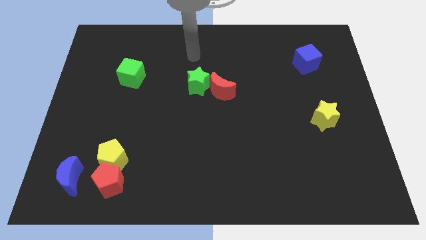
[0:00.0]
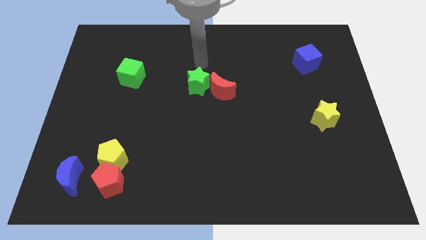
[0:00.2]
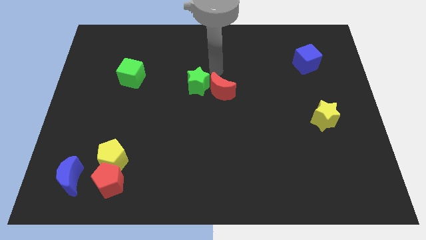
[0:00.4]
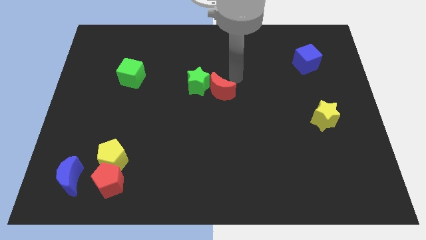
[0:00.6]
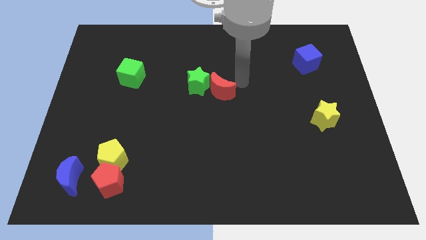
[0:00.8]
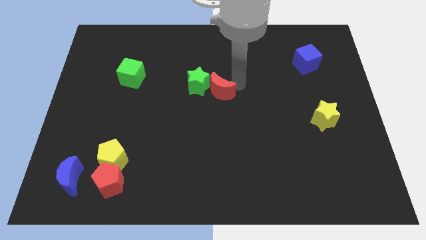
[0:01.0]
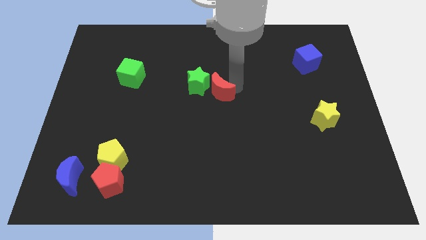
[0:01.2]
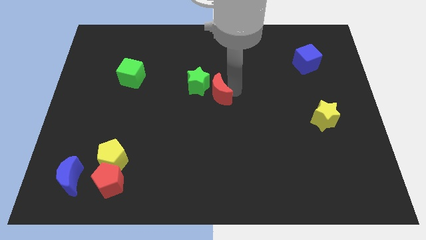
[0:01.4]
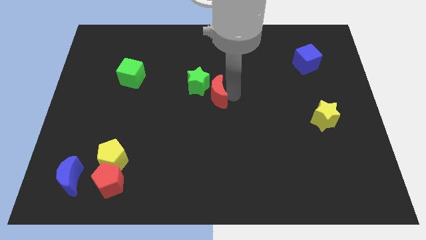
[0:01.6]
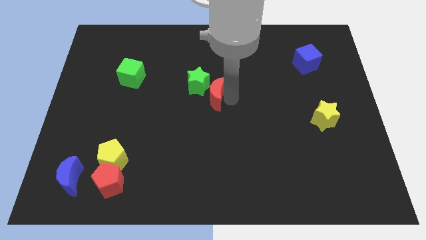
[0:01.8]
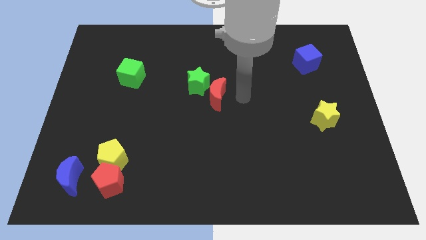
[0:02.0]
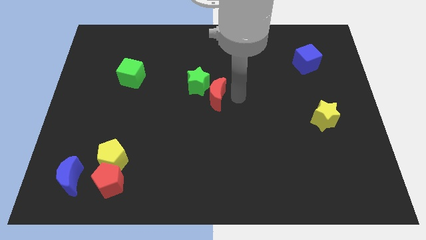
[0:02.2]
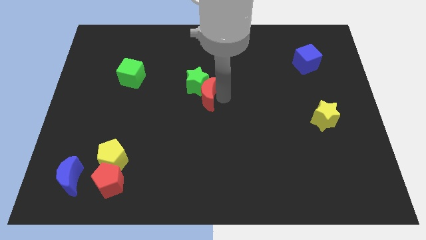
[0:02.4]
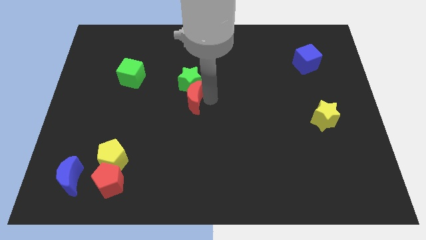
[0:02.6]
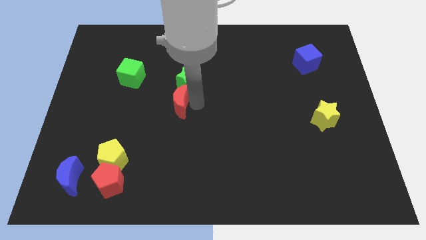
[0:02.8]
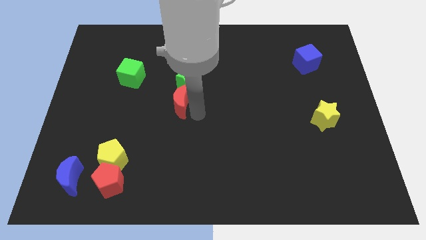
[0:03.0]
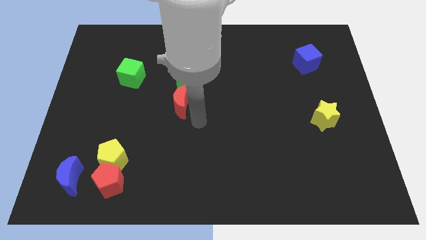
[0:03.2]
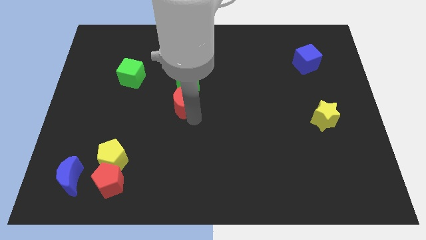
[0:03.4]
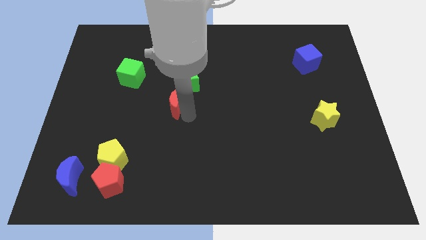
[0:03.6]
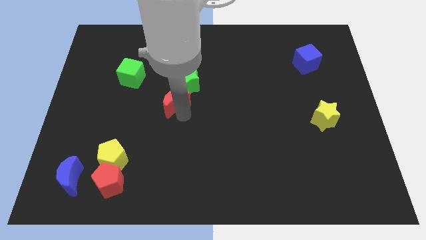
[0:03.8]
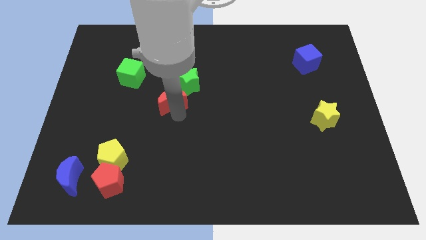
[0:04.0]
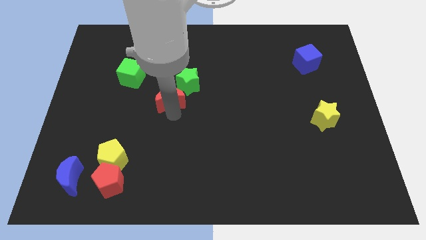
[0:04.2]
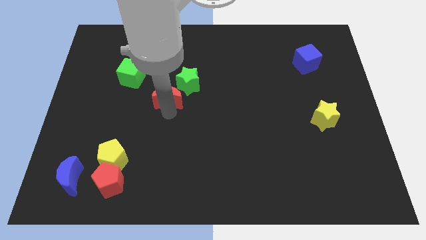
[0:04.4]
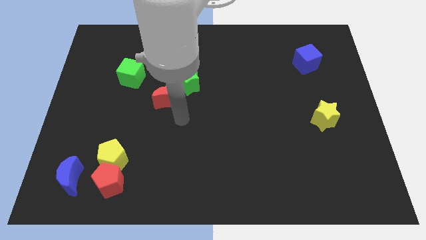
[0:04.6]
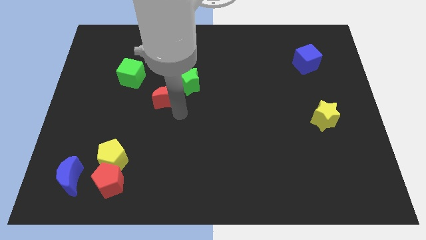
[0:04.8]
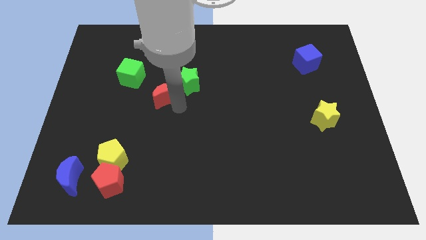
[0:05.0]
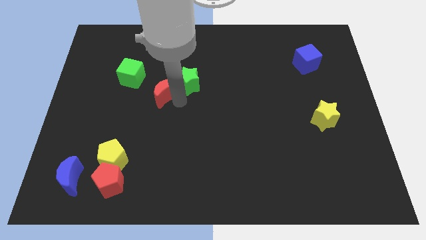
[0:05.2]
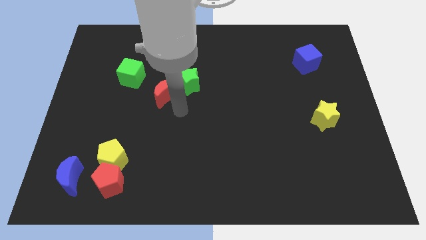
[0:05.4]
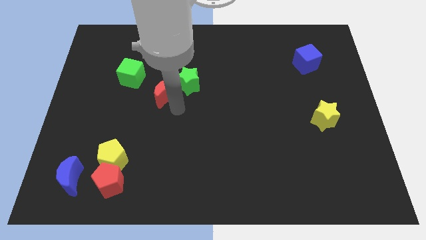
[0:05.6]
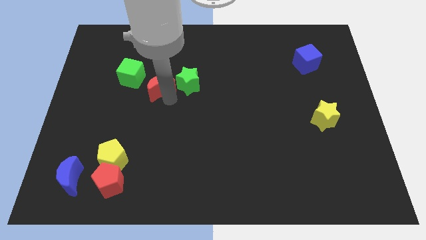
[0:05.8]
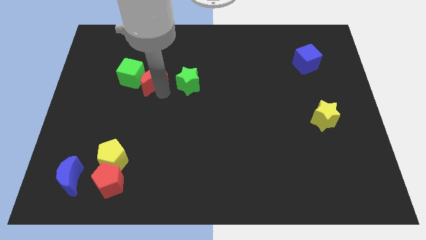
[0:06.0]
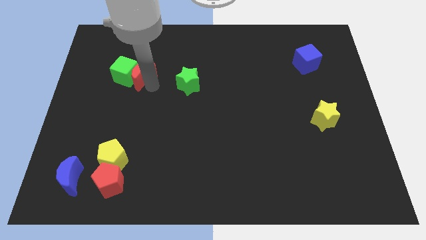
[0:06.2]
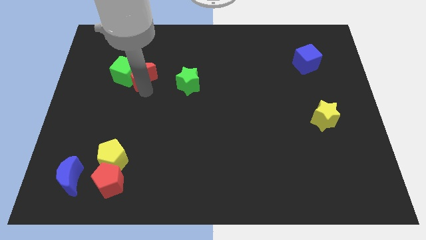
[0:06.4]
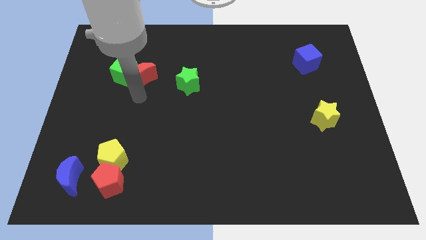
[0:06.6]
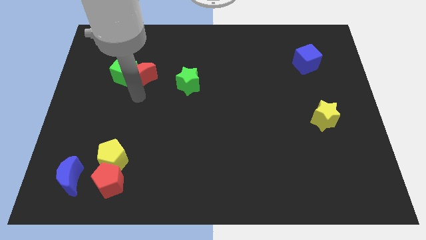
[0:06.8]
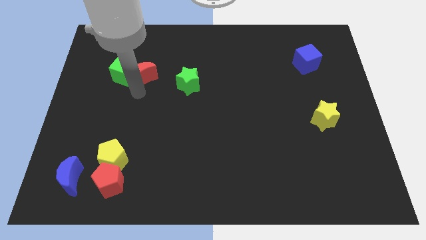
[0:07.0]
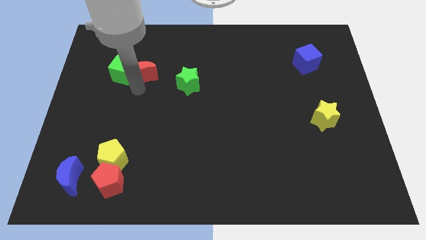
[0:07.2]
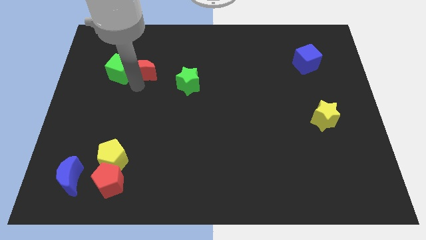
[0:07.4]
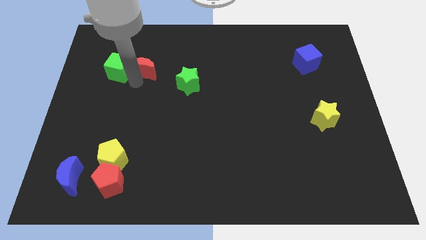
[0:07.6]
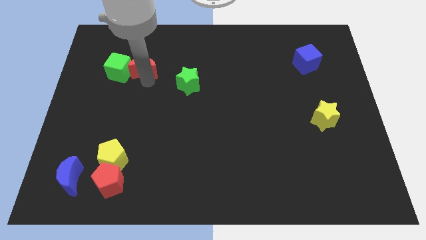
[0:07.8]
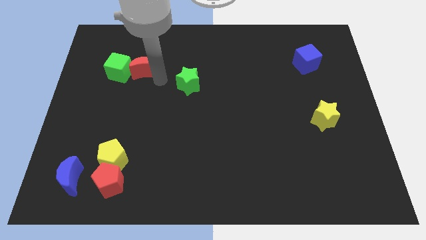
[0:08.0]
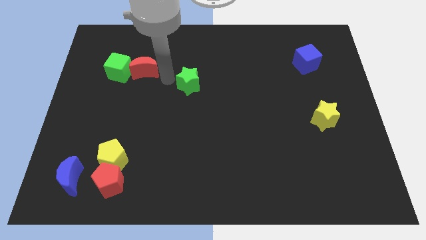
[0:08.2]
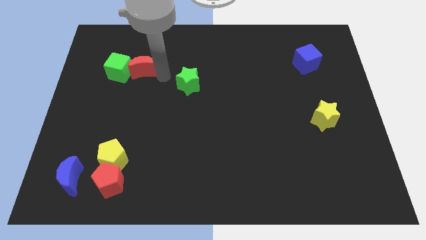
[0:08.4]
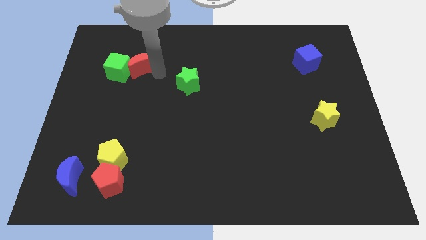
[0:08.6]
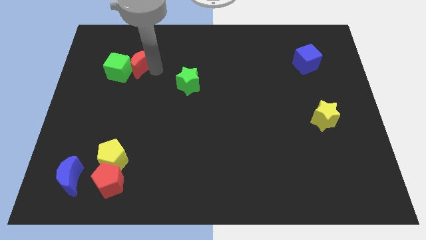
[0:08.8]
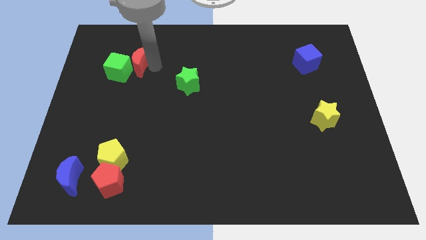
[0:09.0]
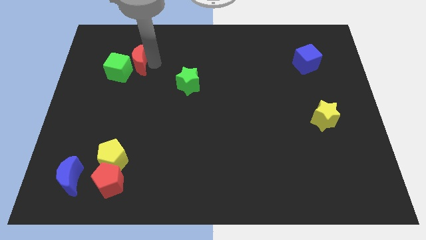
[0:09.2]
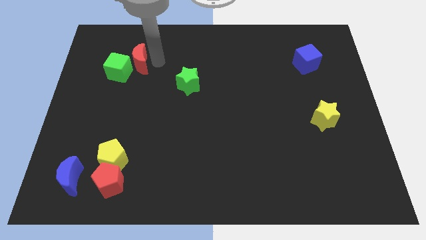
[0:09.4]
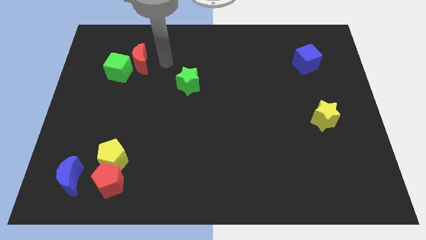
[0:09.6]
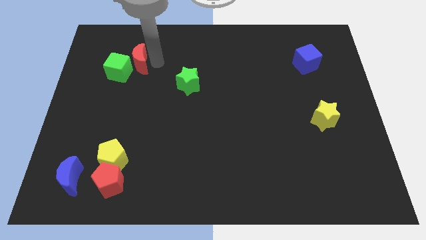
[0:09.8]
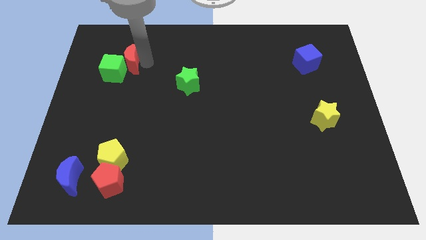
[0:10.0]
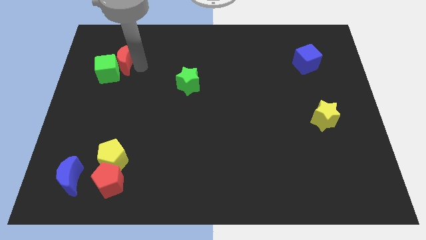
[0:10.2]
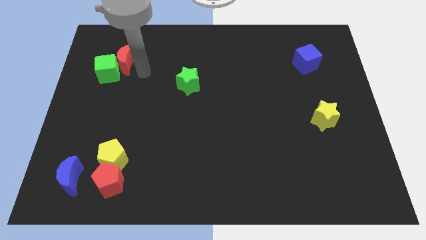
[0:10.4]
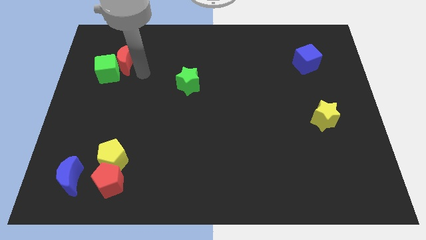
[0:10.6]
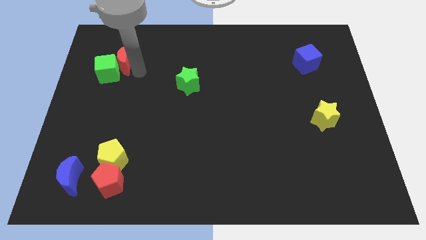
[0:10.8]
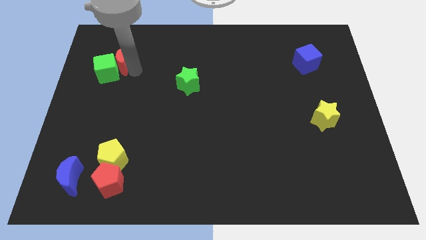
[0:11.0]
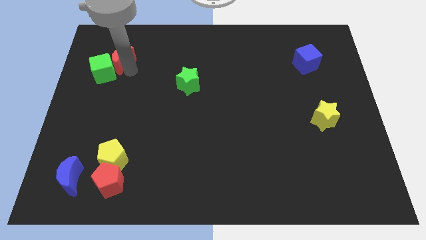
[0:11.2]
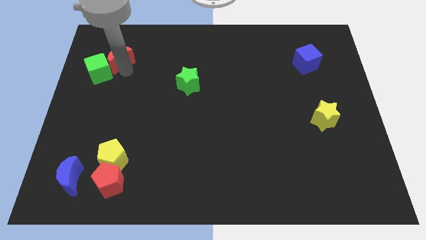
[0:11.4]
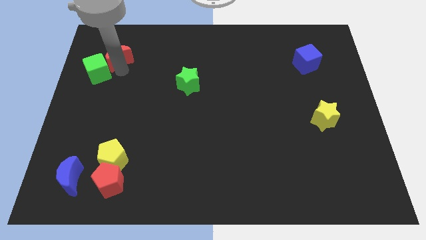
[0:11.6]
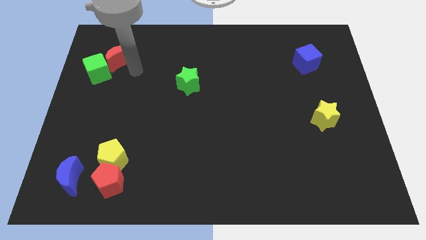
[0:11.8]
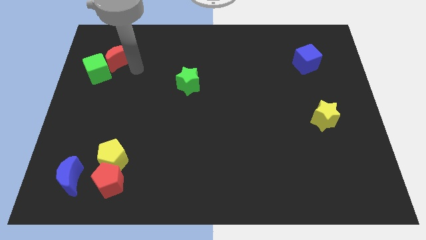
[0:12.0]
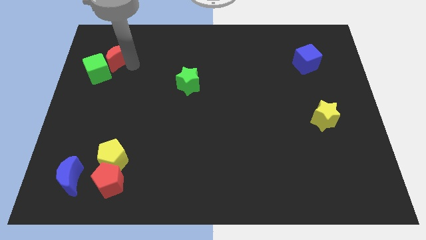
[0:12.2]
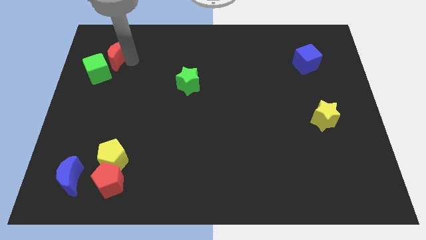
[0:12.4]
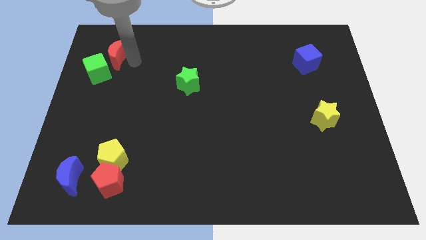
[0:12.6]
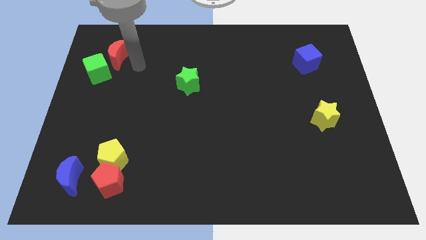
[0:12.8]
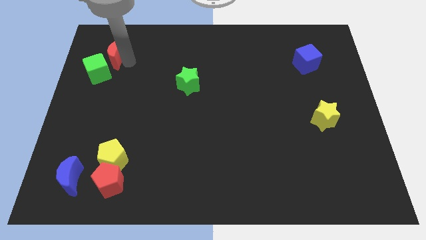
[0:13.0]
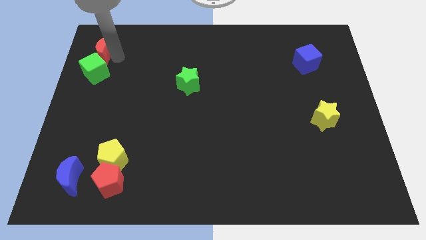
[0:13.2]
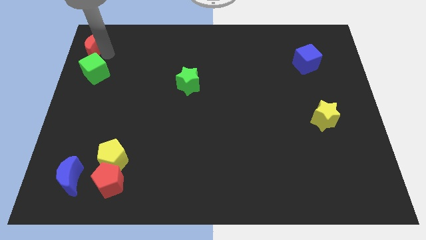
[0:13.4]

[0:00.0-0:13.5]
slide the red moon to the upper left corner

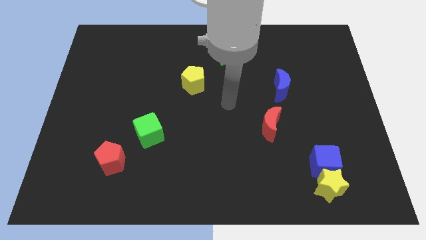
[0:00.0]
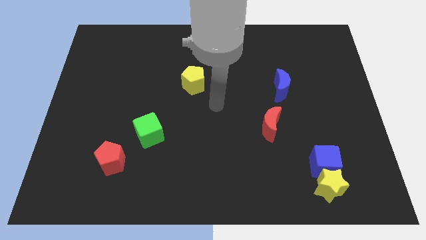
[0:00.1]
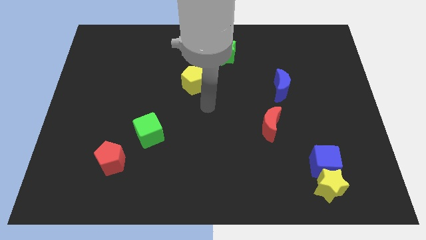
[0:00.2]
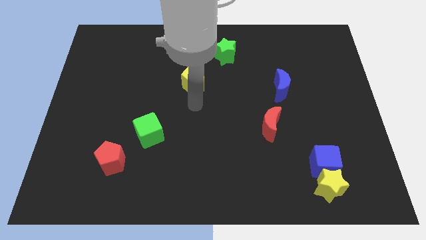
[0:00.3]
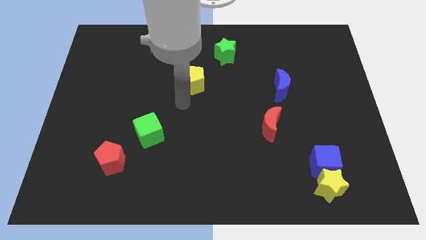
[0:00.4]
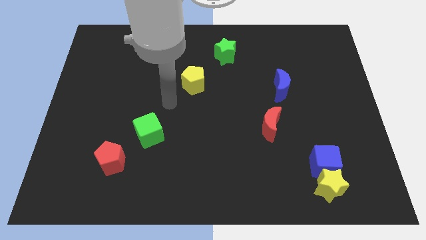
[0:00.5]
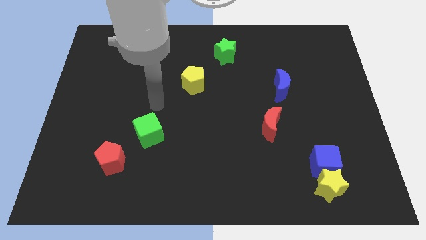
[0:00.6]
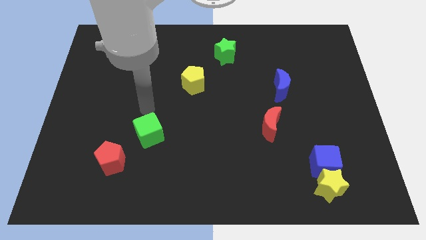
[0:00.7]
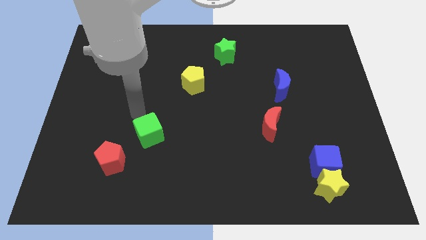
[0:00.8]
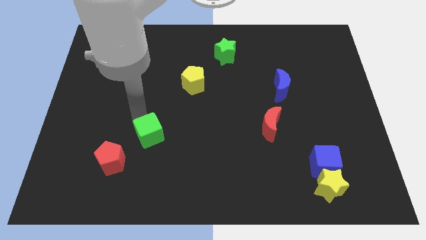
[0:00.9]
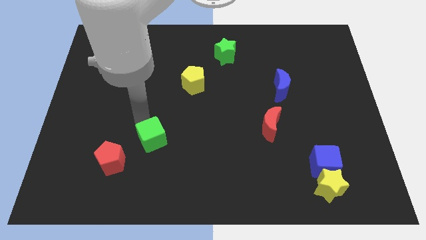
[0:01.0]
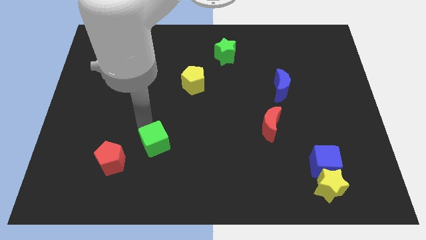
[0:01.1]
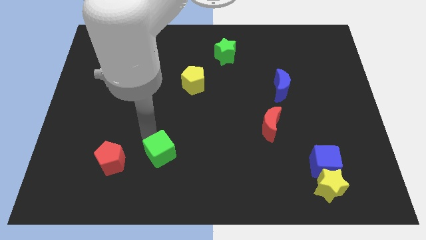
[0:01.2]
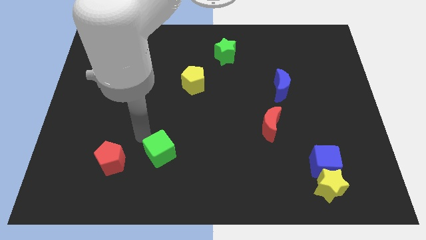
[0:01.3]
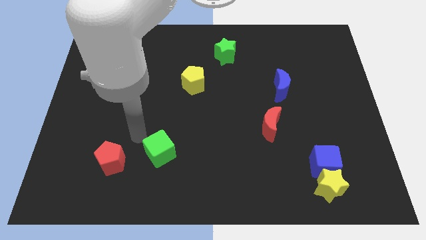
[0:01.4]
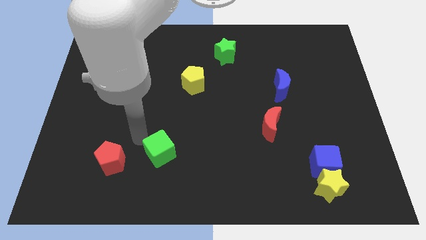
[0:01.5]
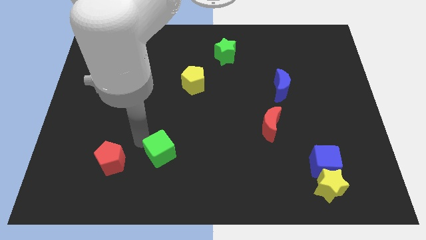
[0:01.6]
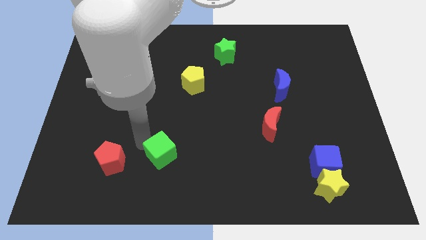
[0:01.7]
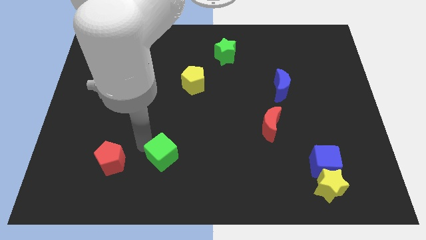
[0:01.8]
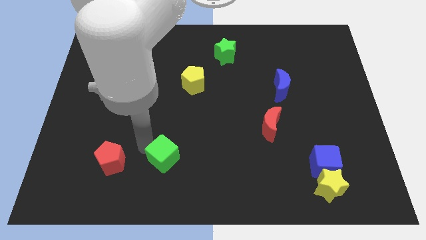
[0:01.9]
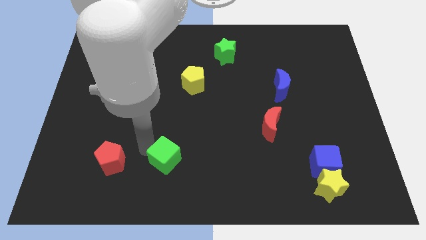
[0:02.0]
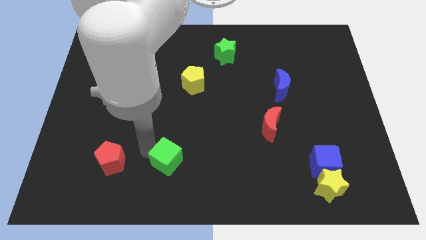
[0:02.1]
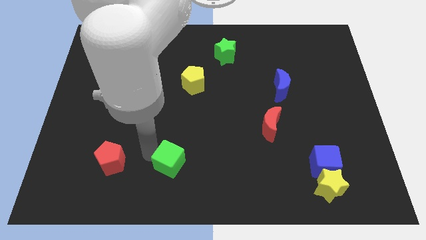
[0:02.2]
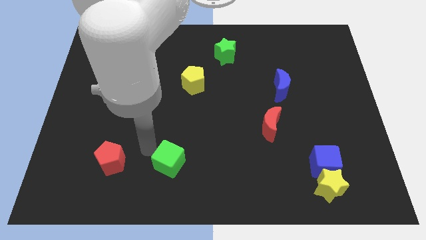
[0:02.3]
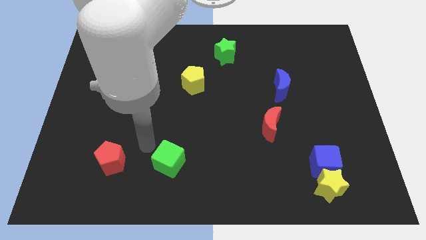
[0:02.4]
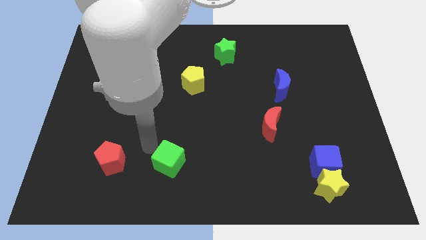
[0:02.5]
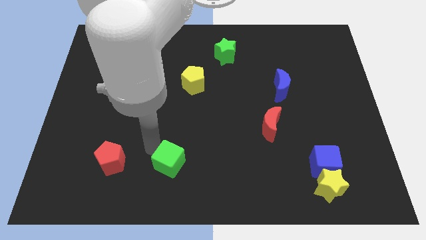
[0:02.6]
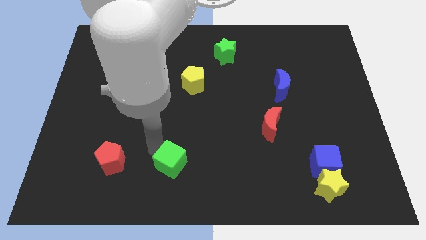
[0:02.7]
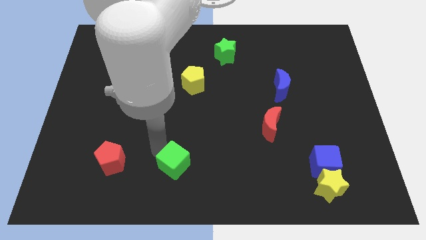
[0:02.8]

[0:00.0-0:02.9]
push the green cube to the bottom
